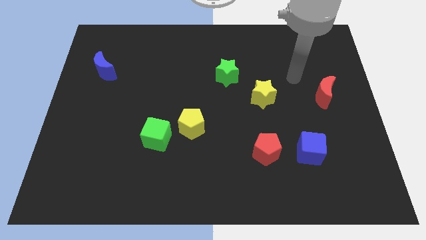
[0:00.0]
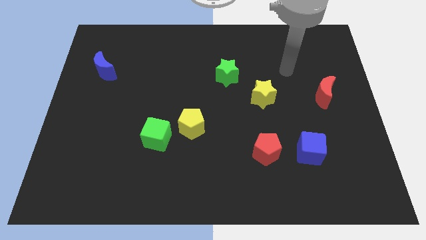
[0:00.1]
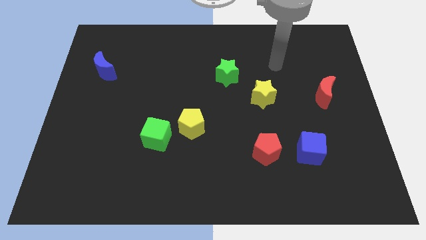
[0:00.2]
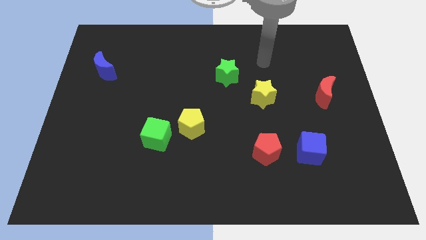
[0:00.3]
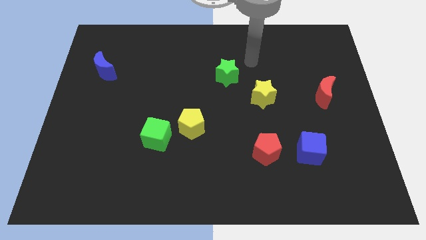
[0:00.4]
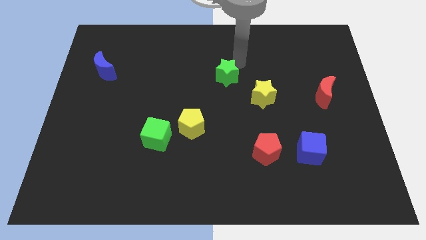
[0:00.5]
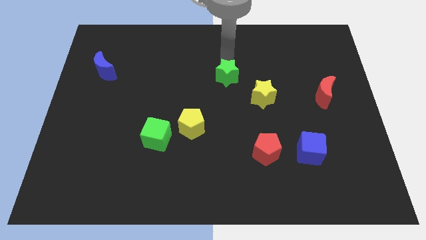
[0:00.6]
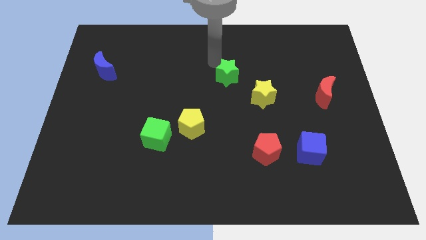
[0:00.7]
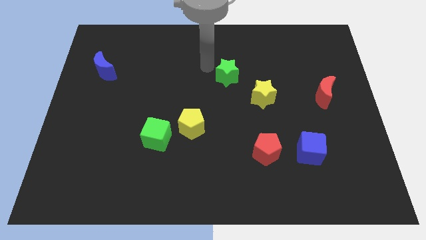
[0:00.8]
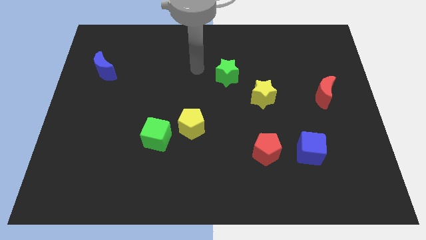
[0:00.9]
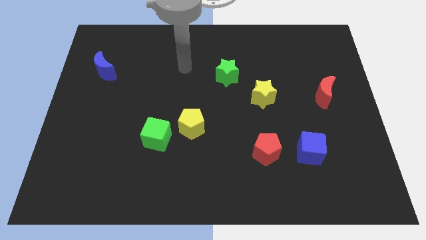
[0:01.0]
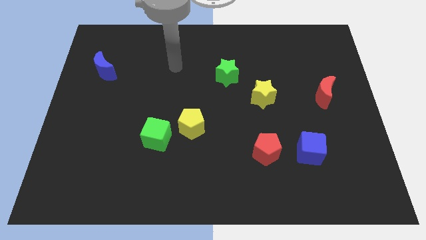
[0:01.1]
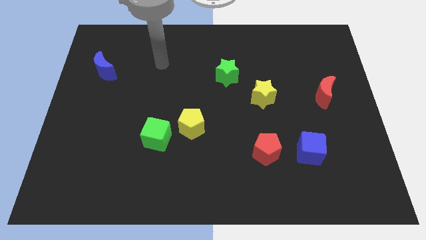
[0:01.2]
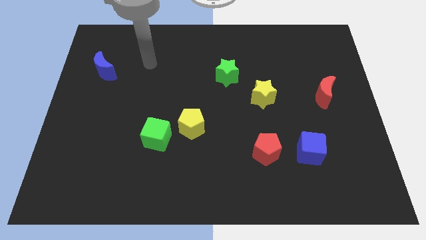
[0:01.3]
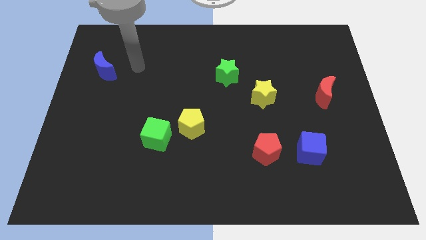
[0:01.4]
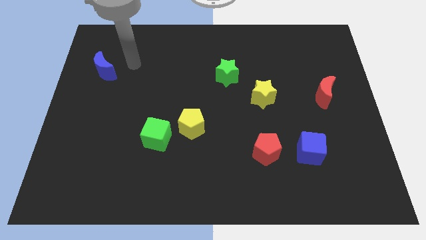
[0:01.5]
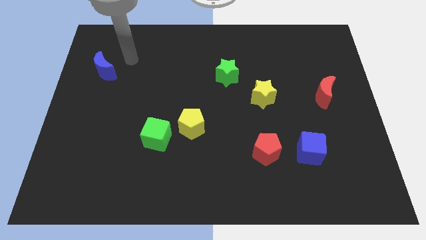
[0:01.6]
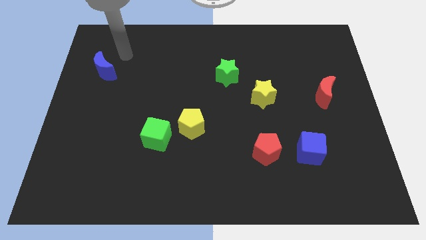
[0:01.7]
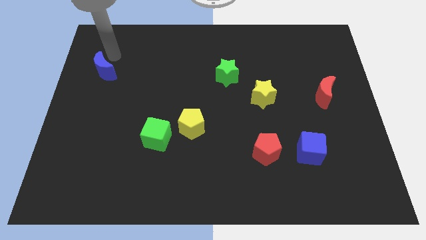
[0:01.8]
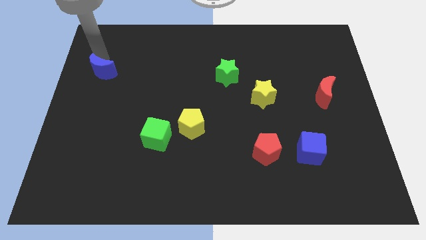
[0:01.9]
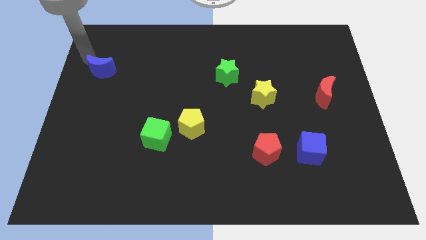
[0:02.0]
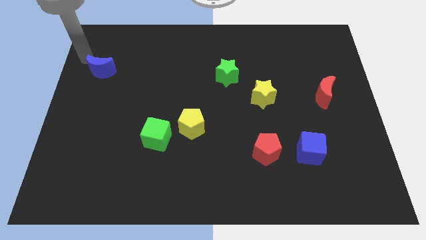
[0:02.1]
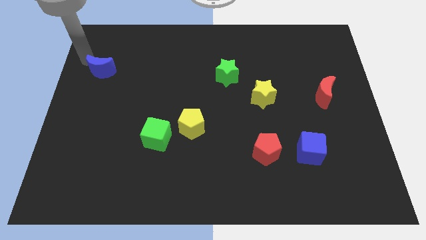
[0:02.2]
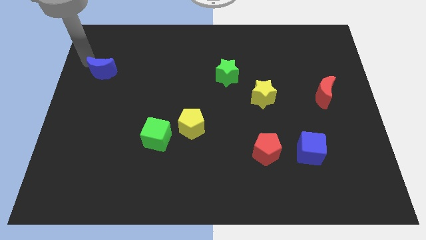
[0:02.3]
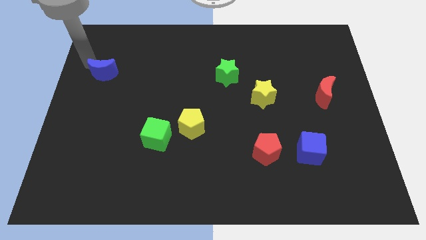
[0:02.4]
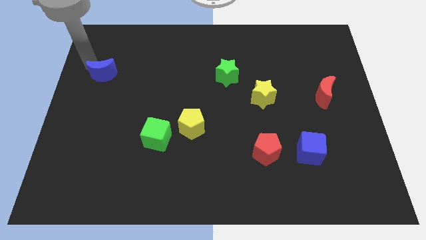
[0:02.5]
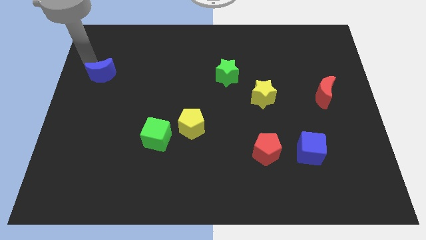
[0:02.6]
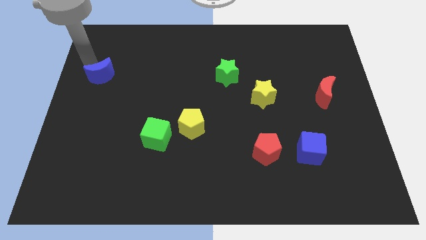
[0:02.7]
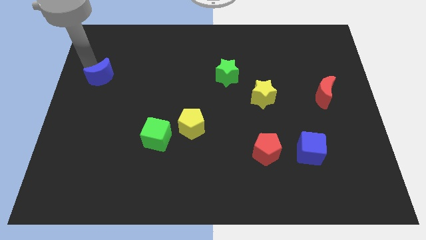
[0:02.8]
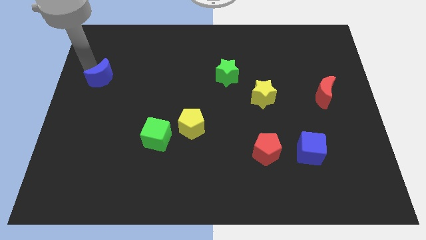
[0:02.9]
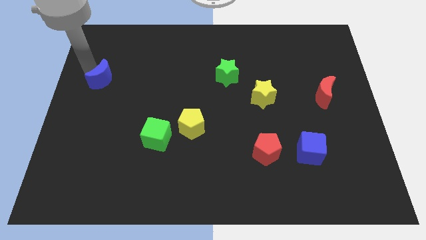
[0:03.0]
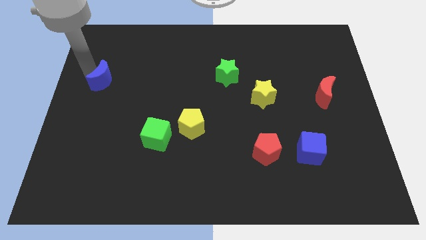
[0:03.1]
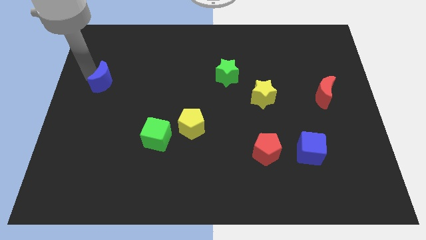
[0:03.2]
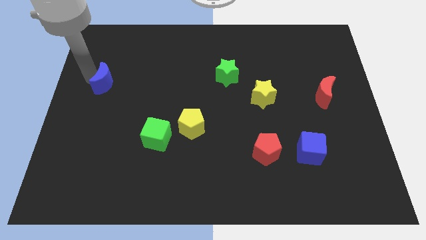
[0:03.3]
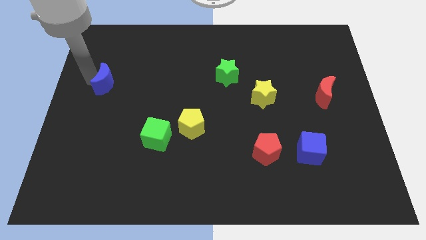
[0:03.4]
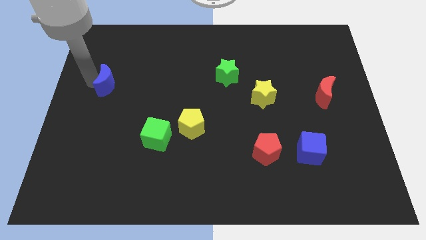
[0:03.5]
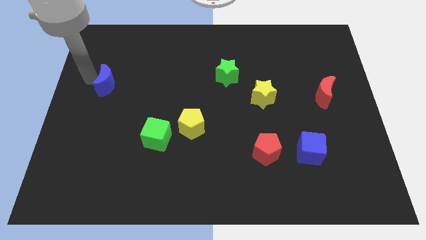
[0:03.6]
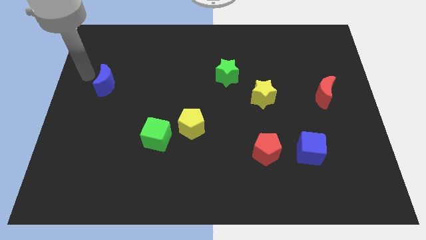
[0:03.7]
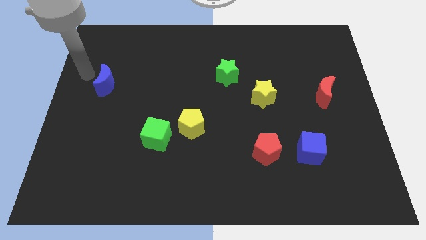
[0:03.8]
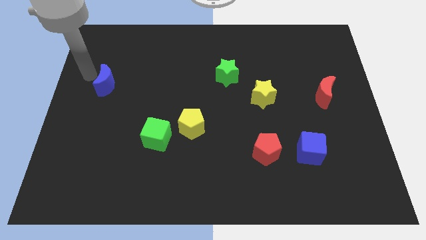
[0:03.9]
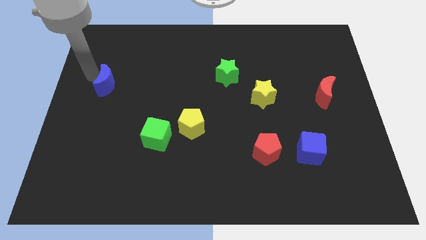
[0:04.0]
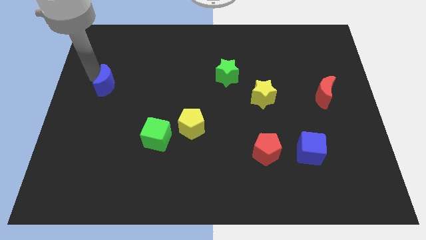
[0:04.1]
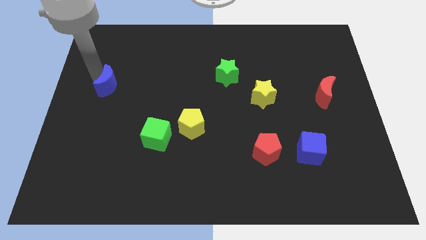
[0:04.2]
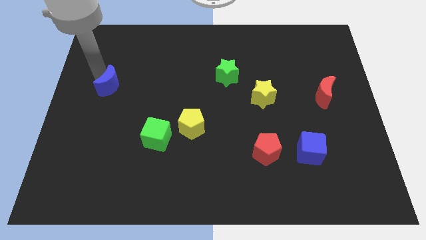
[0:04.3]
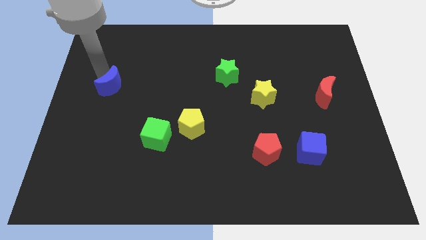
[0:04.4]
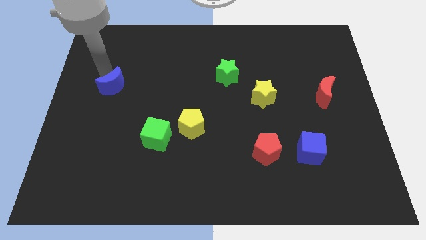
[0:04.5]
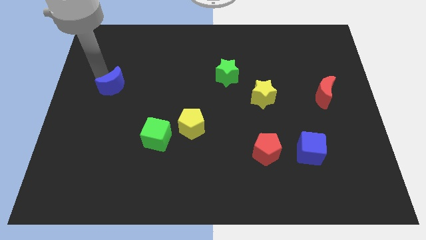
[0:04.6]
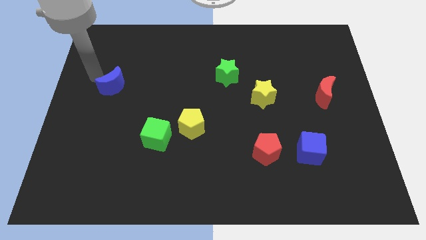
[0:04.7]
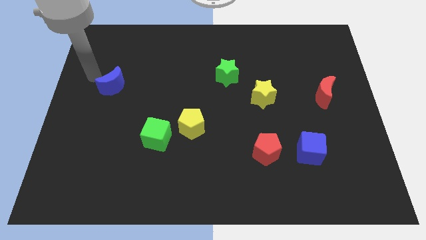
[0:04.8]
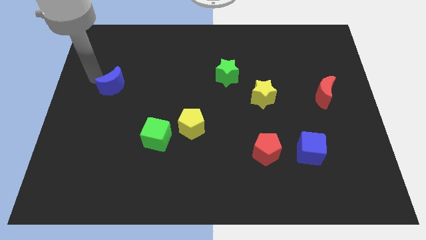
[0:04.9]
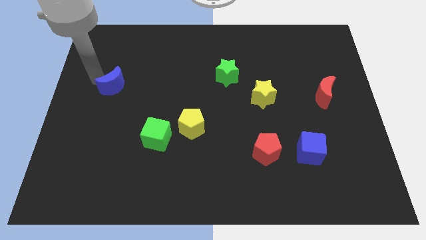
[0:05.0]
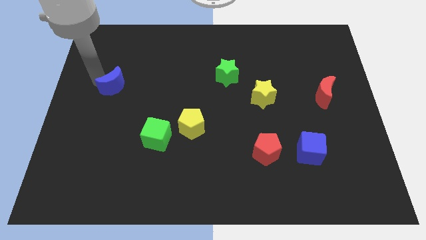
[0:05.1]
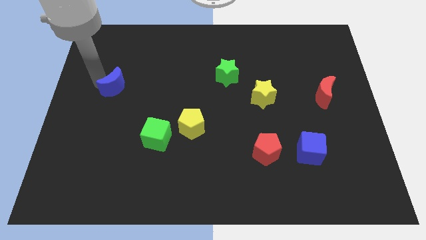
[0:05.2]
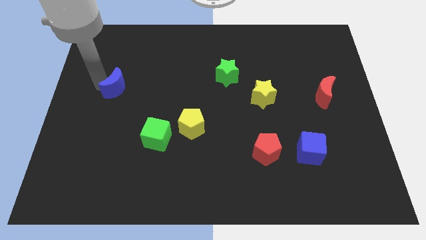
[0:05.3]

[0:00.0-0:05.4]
slide the blue moon down and right diagonally a bit

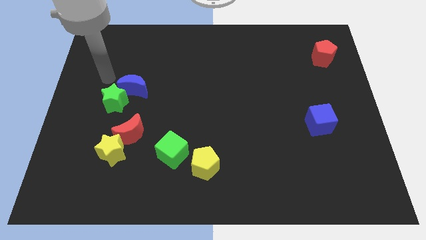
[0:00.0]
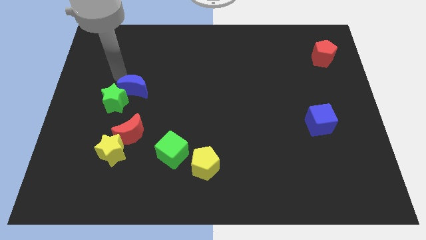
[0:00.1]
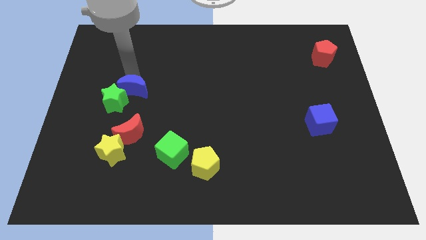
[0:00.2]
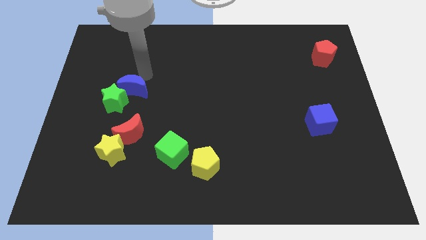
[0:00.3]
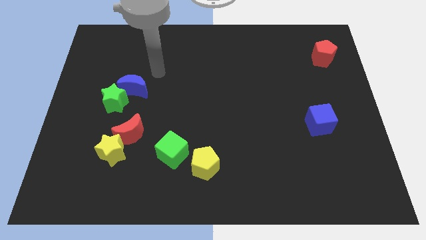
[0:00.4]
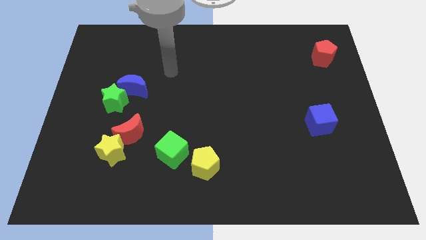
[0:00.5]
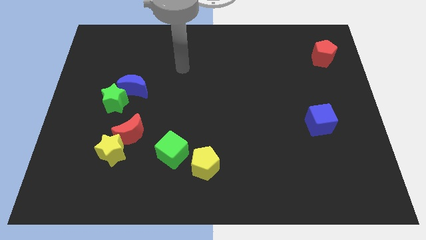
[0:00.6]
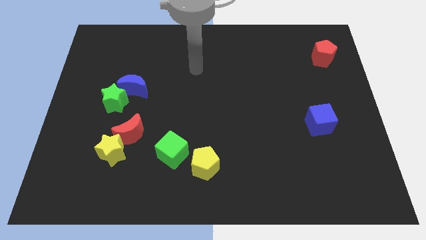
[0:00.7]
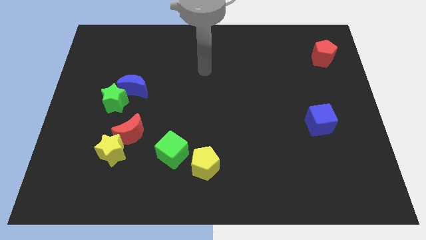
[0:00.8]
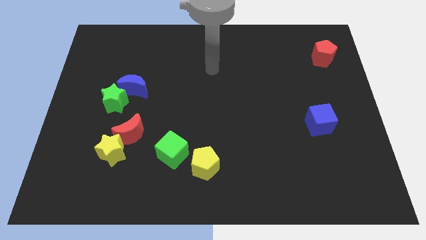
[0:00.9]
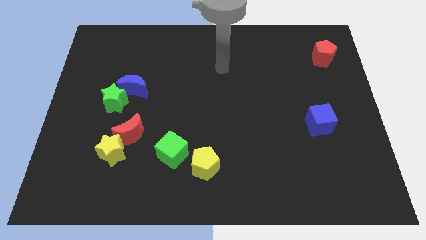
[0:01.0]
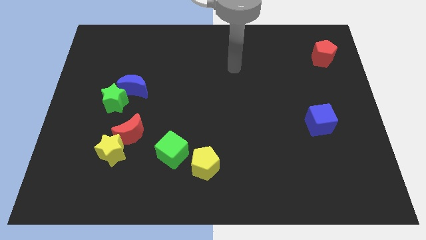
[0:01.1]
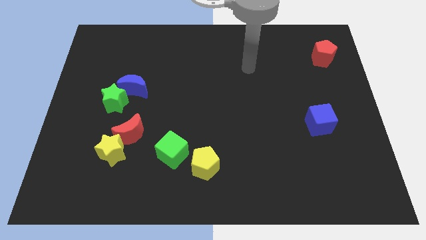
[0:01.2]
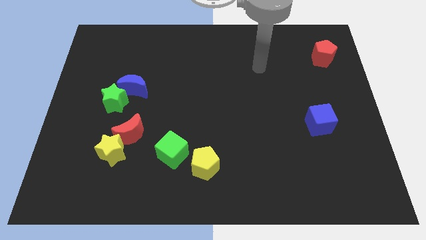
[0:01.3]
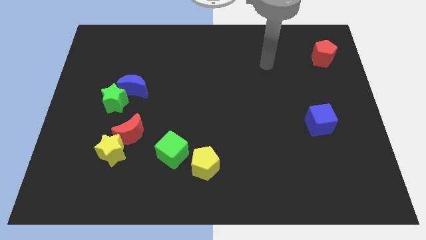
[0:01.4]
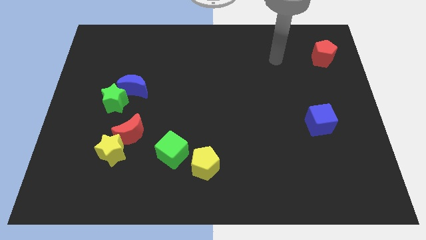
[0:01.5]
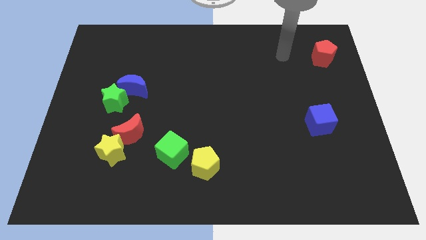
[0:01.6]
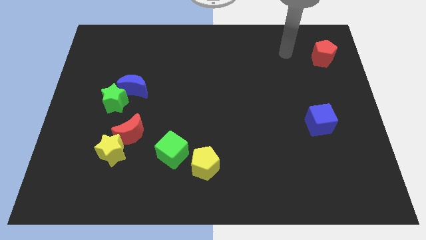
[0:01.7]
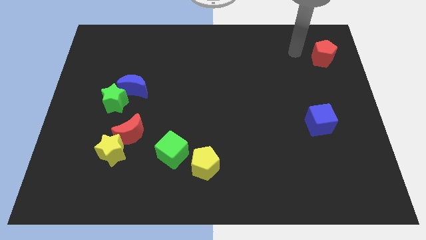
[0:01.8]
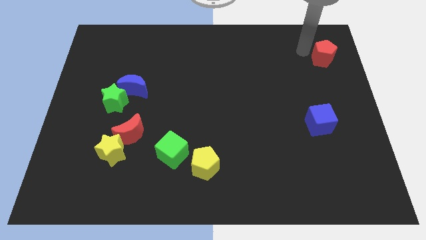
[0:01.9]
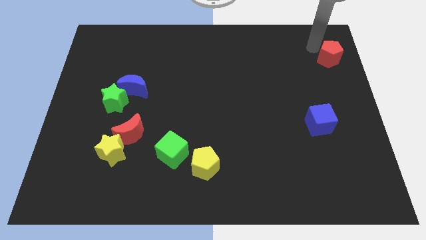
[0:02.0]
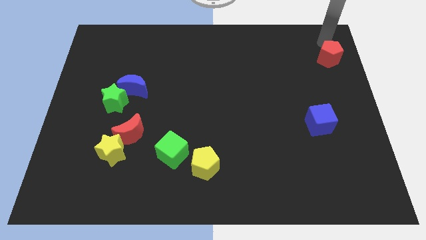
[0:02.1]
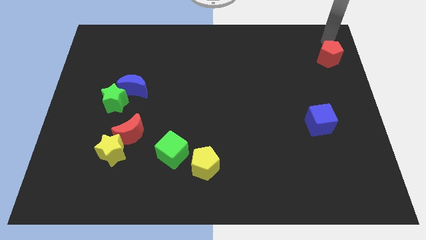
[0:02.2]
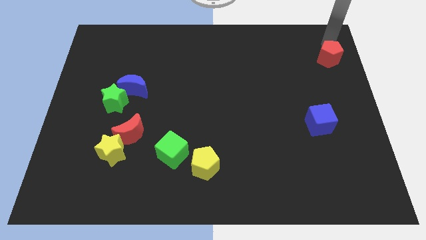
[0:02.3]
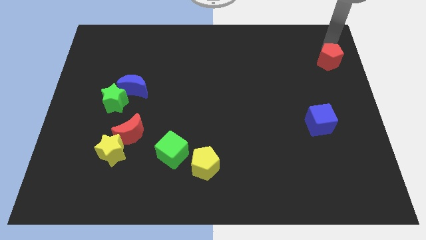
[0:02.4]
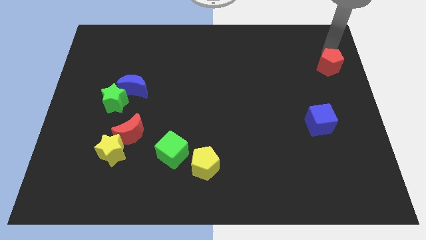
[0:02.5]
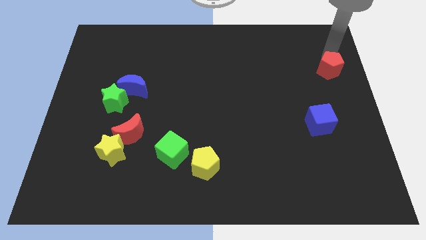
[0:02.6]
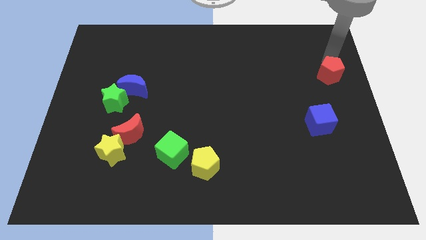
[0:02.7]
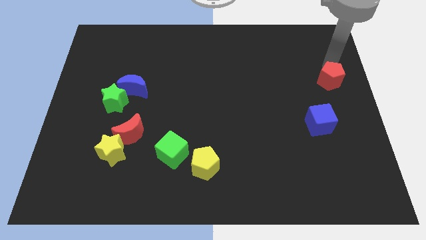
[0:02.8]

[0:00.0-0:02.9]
slightly push the red pentagon down
